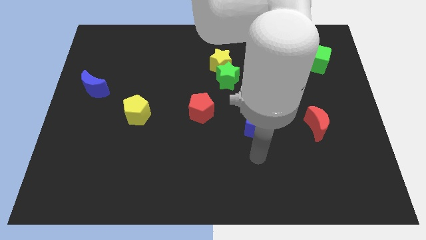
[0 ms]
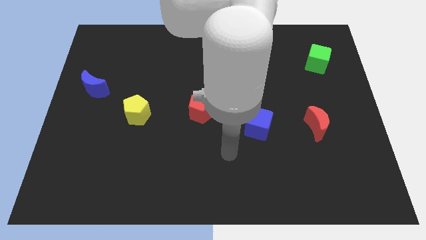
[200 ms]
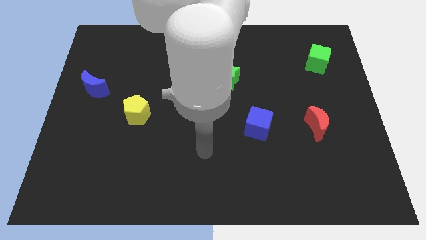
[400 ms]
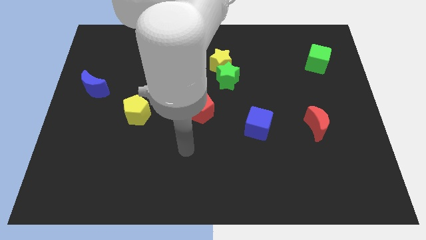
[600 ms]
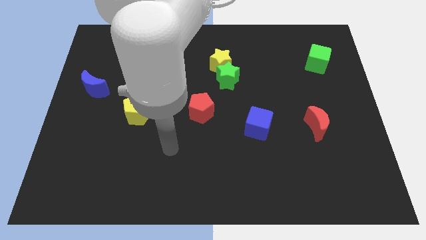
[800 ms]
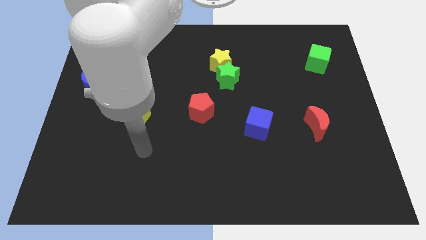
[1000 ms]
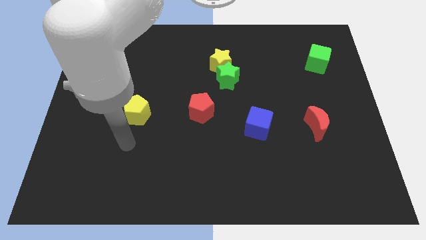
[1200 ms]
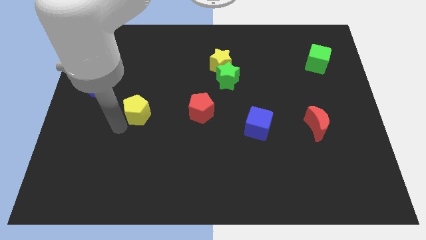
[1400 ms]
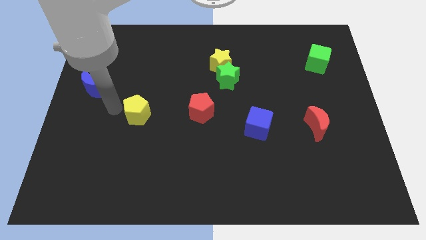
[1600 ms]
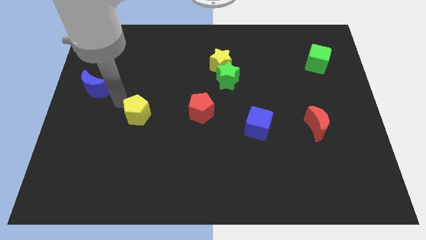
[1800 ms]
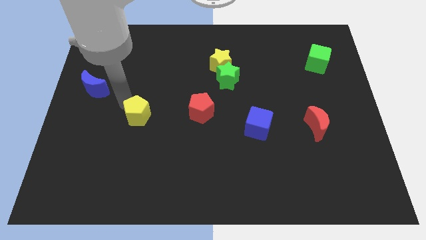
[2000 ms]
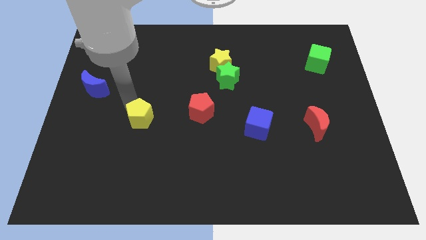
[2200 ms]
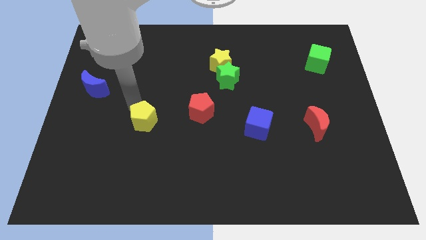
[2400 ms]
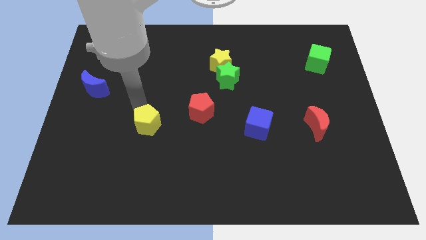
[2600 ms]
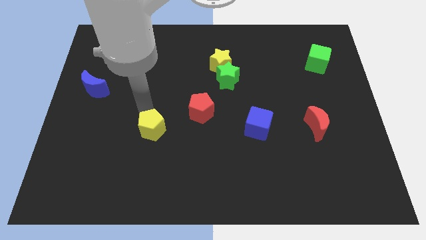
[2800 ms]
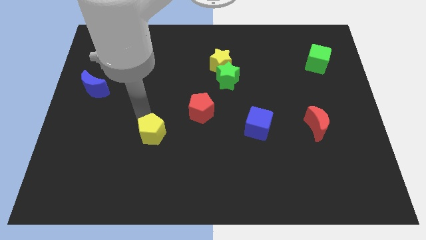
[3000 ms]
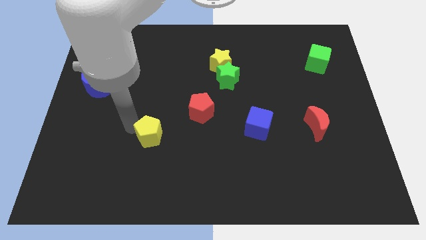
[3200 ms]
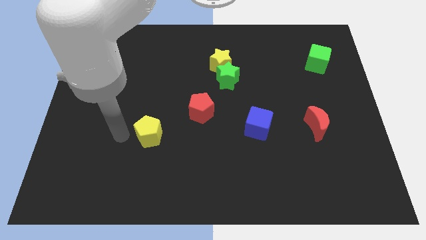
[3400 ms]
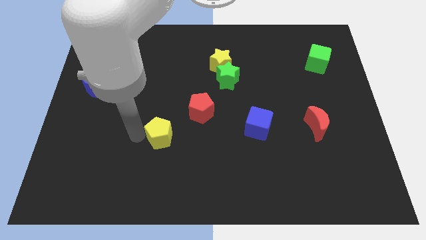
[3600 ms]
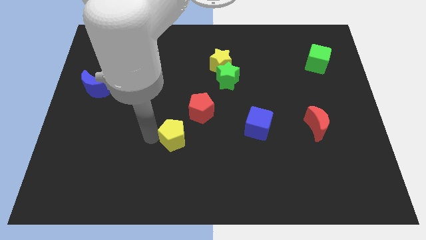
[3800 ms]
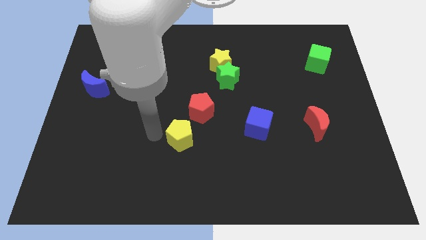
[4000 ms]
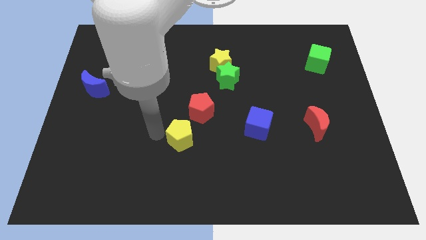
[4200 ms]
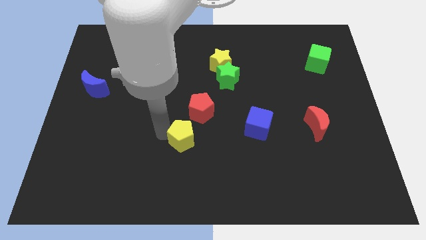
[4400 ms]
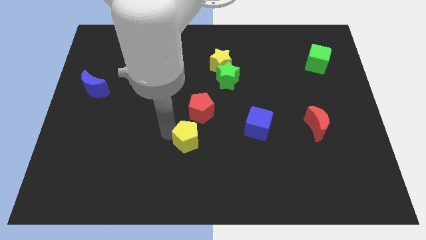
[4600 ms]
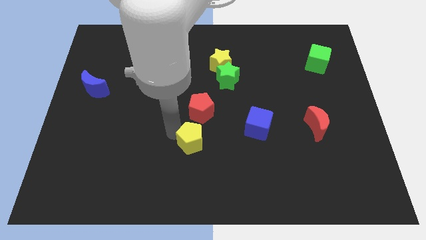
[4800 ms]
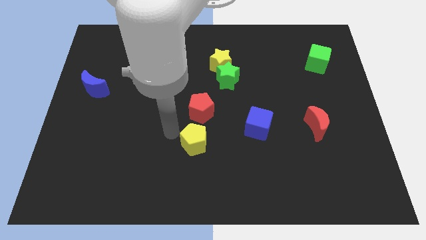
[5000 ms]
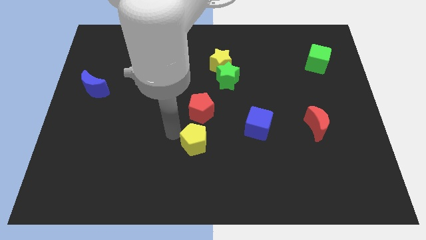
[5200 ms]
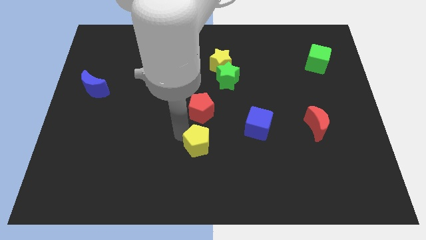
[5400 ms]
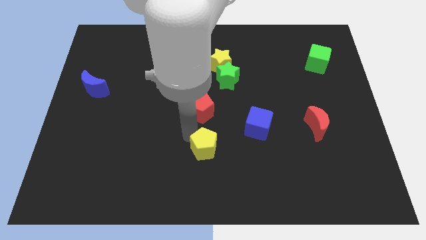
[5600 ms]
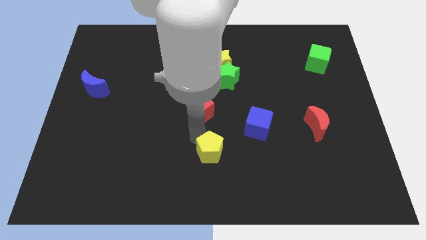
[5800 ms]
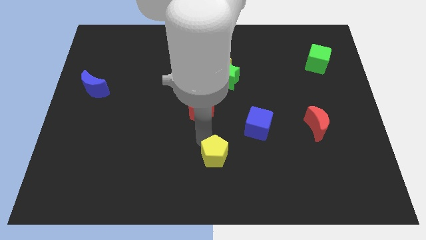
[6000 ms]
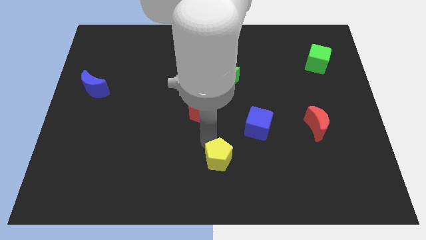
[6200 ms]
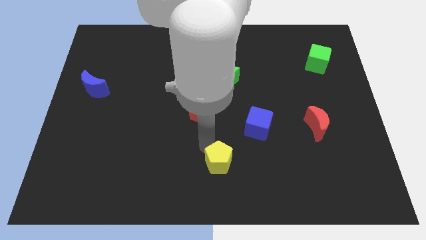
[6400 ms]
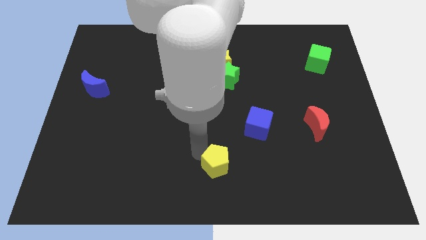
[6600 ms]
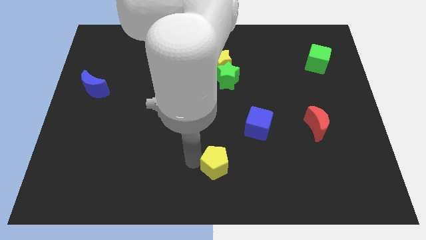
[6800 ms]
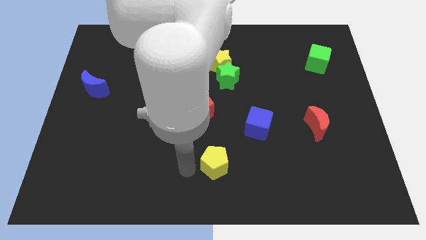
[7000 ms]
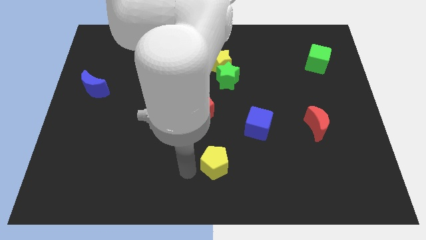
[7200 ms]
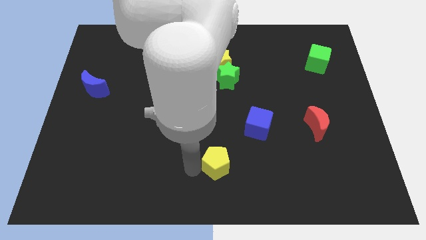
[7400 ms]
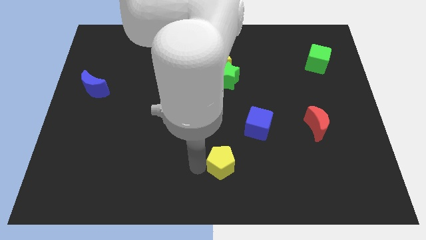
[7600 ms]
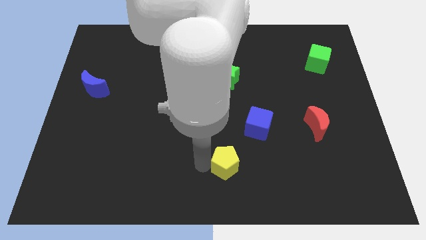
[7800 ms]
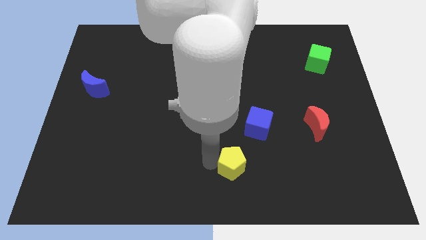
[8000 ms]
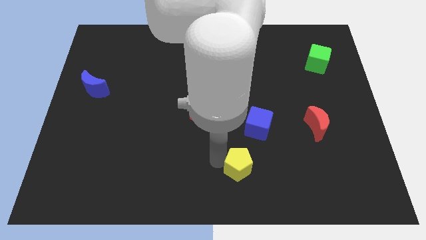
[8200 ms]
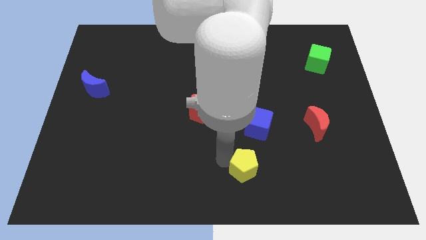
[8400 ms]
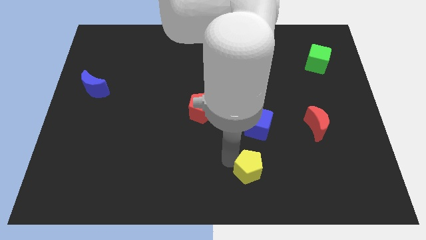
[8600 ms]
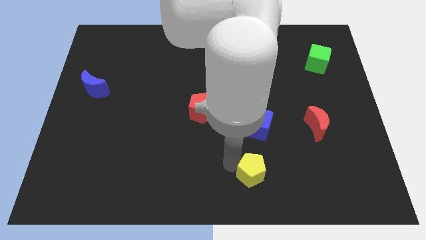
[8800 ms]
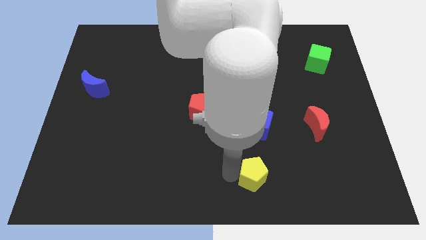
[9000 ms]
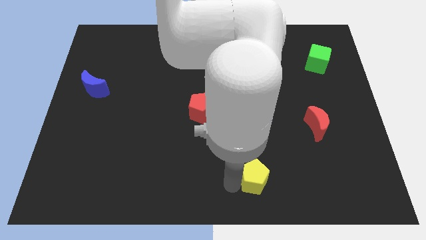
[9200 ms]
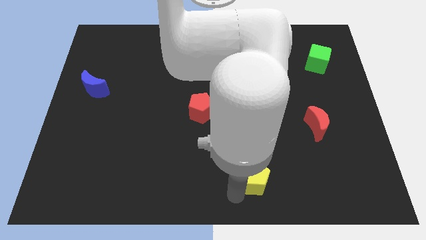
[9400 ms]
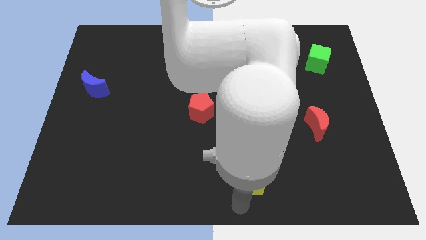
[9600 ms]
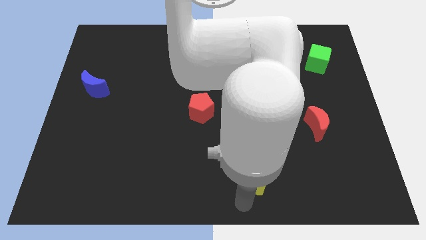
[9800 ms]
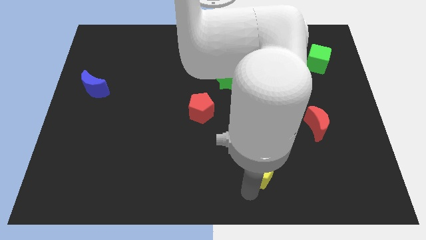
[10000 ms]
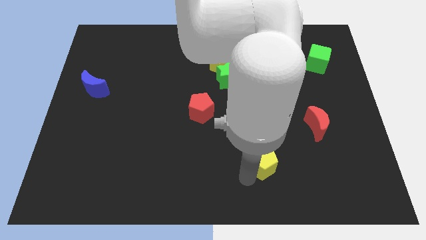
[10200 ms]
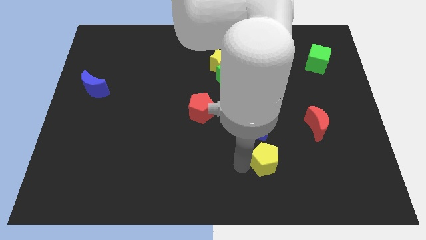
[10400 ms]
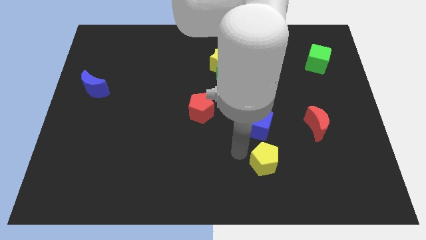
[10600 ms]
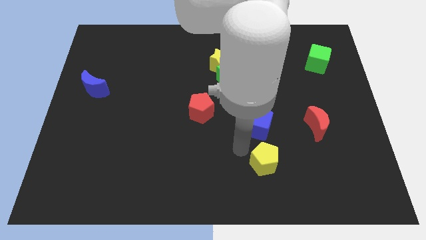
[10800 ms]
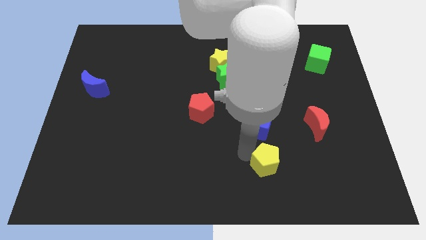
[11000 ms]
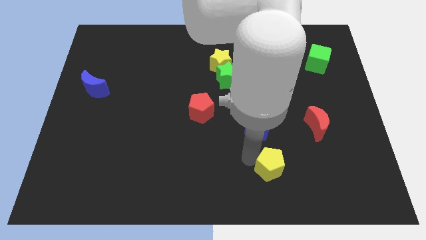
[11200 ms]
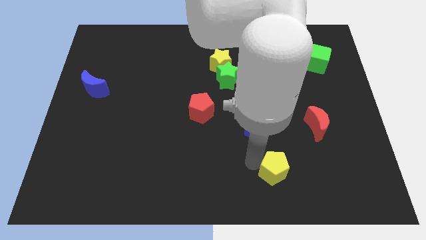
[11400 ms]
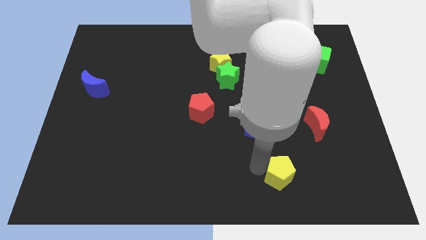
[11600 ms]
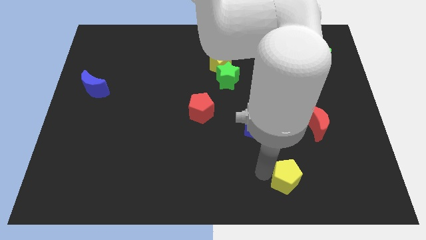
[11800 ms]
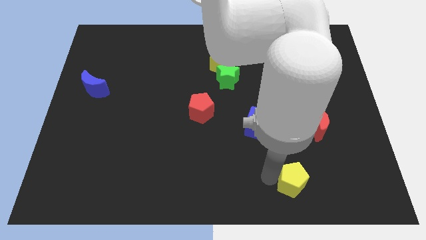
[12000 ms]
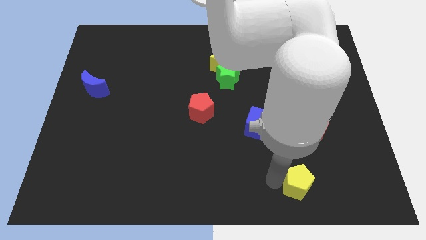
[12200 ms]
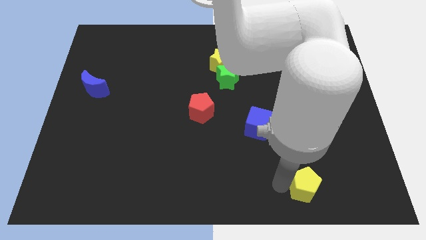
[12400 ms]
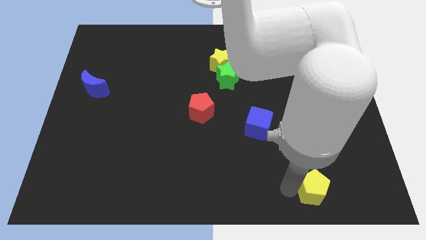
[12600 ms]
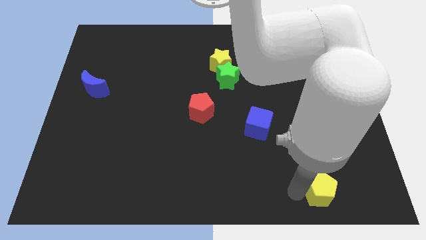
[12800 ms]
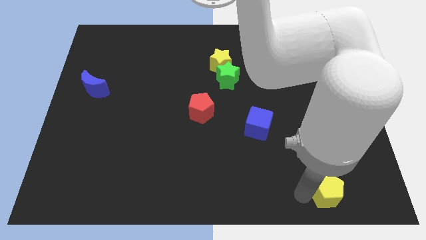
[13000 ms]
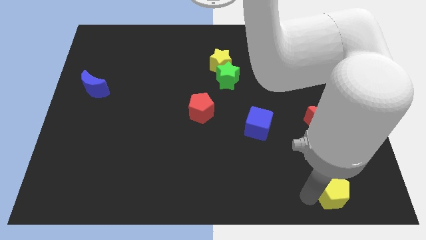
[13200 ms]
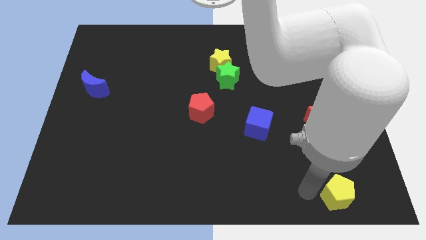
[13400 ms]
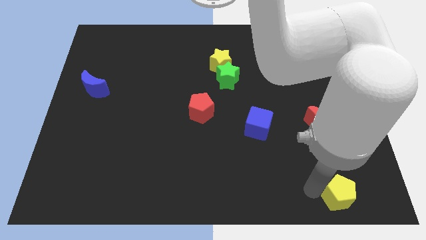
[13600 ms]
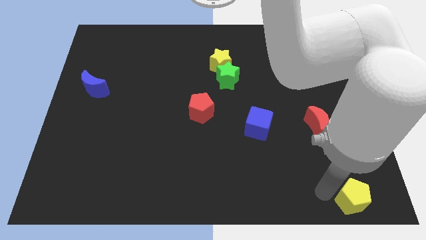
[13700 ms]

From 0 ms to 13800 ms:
move the yellow pentagon to the lower right corner
